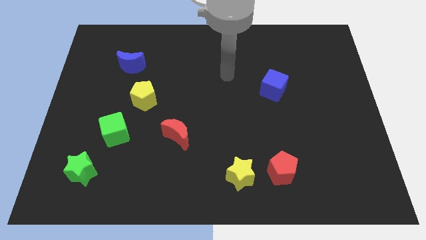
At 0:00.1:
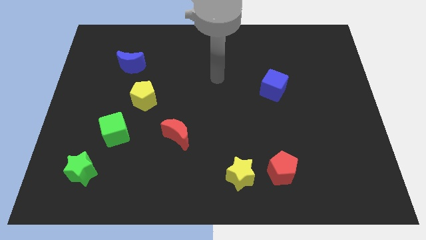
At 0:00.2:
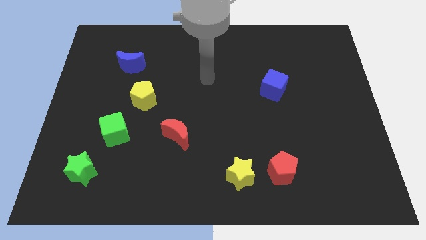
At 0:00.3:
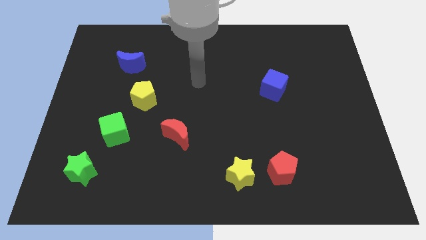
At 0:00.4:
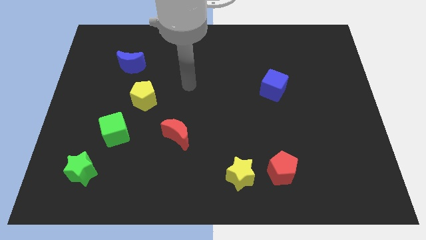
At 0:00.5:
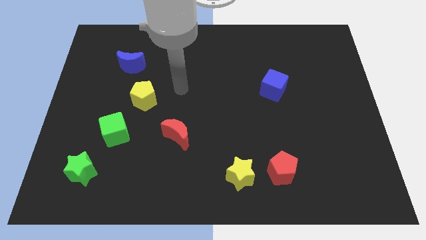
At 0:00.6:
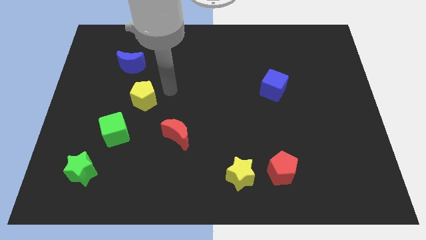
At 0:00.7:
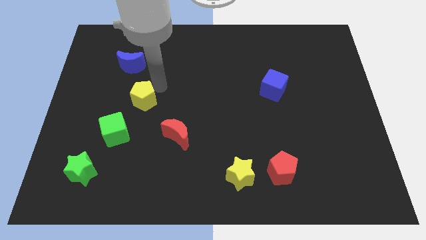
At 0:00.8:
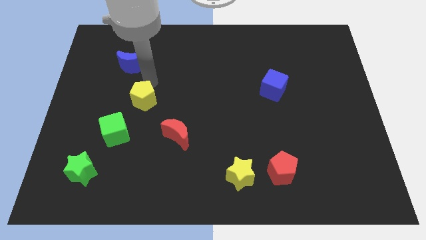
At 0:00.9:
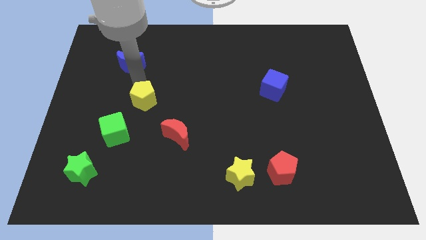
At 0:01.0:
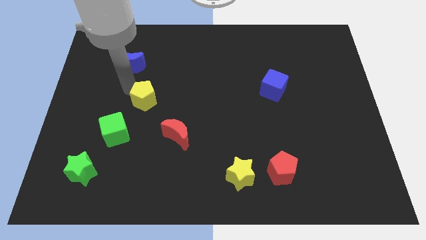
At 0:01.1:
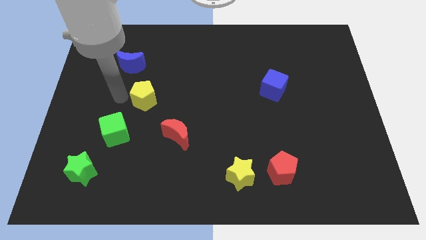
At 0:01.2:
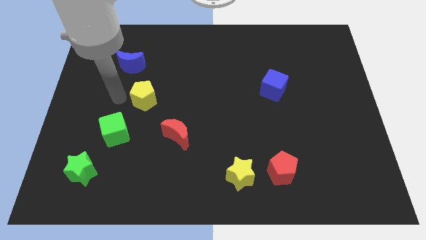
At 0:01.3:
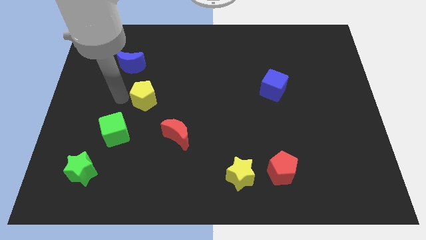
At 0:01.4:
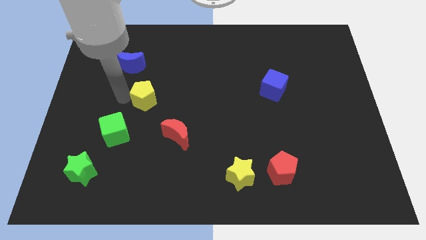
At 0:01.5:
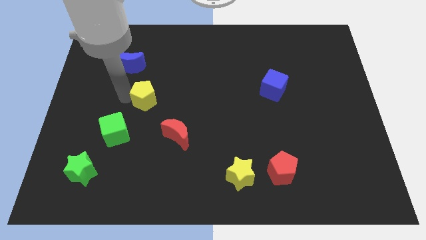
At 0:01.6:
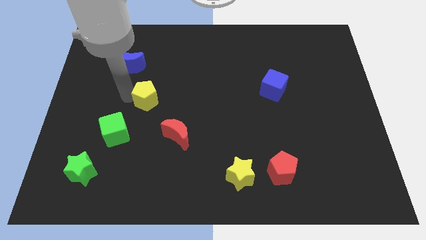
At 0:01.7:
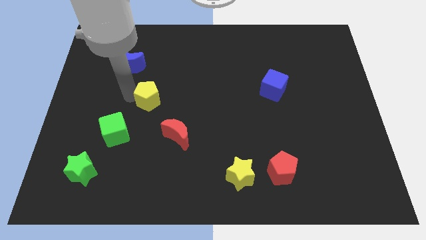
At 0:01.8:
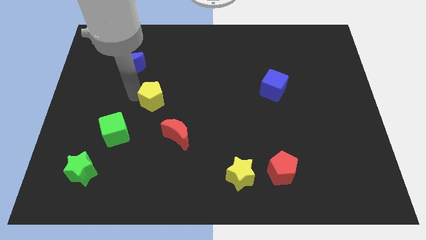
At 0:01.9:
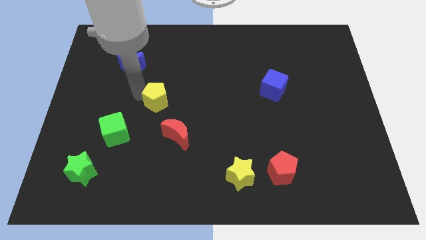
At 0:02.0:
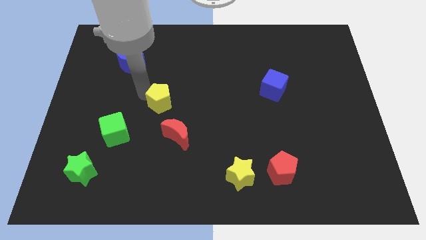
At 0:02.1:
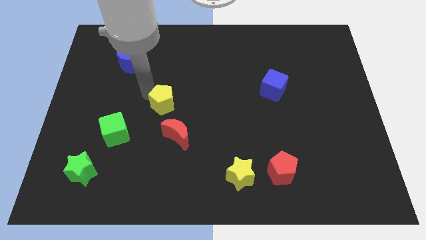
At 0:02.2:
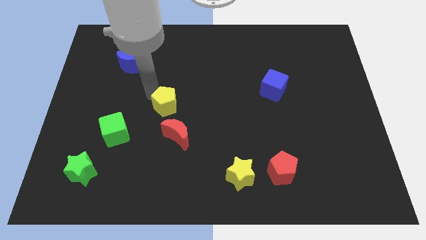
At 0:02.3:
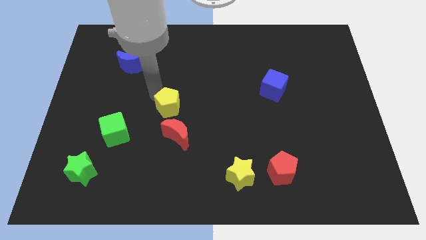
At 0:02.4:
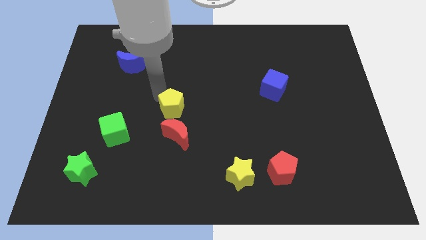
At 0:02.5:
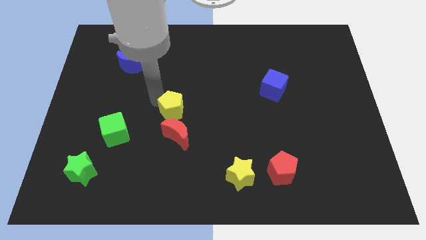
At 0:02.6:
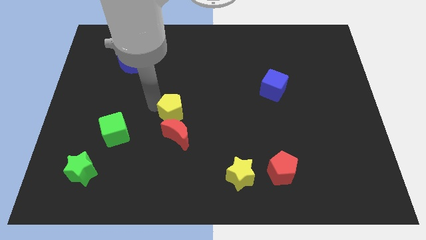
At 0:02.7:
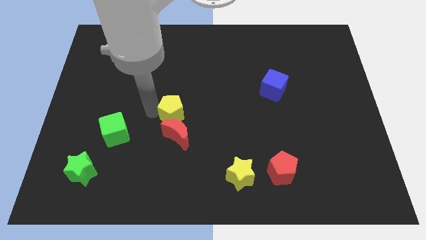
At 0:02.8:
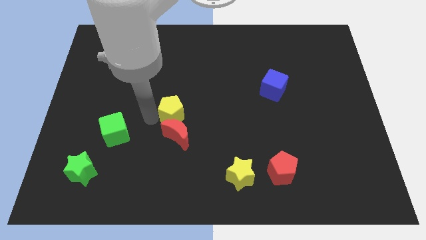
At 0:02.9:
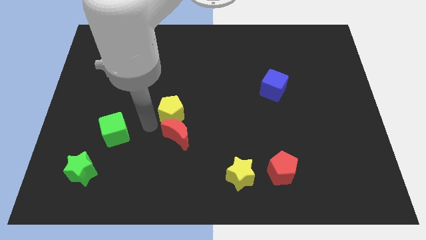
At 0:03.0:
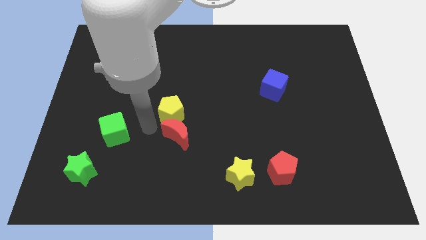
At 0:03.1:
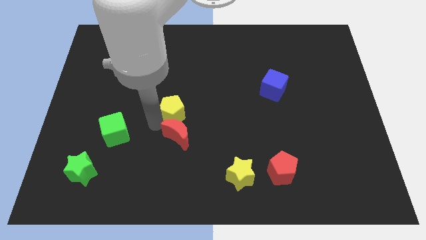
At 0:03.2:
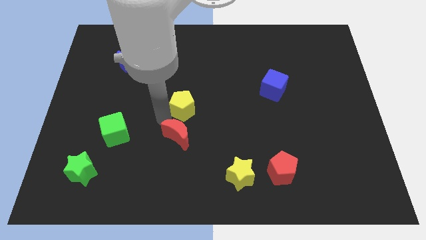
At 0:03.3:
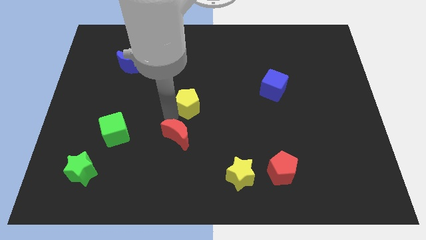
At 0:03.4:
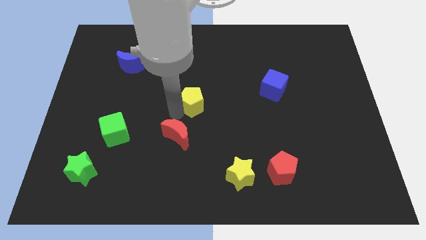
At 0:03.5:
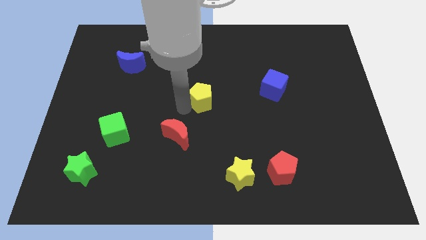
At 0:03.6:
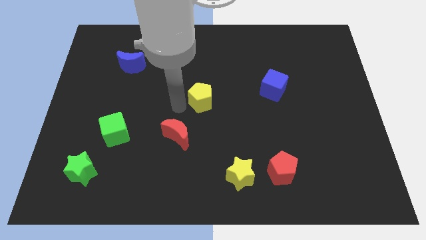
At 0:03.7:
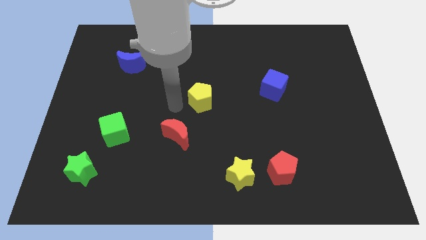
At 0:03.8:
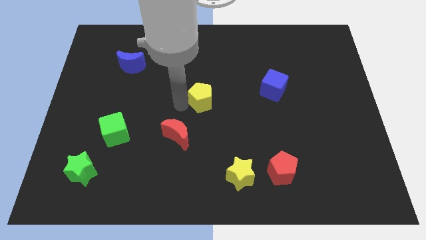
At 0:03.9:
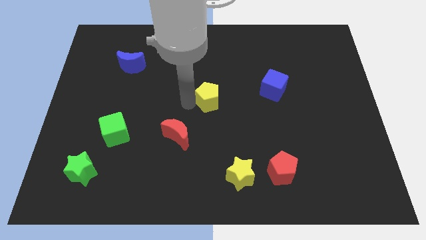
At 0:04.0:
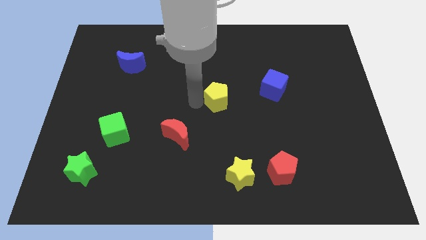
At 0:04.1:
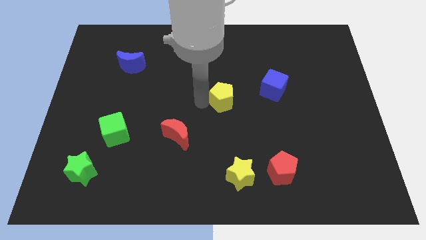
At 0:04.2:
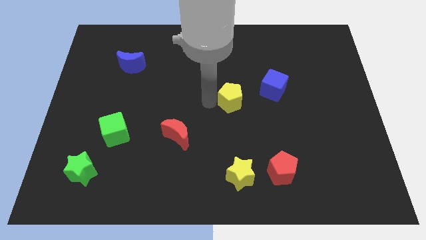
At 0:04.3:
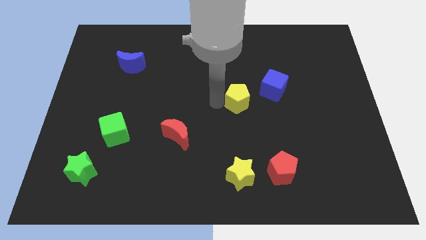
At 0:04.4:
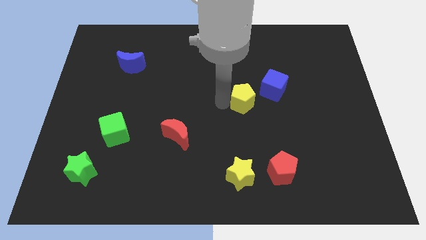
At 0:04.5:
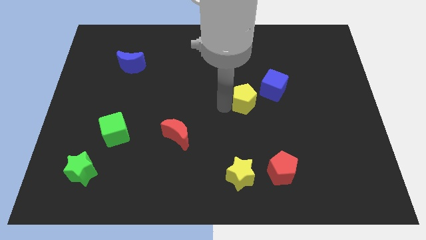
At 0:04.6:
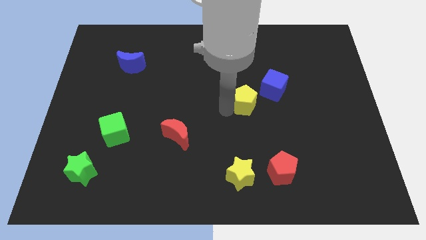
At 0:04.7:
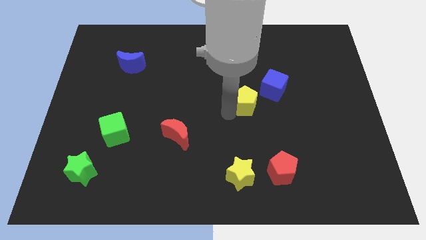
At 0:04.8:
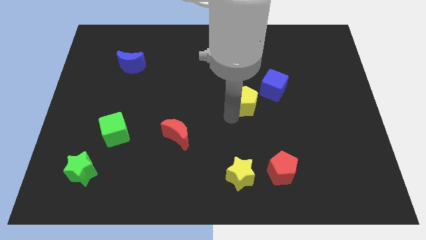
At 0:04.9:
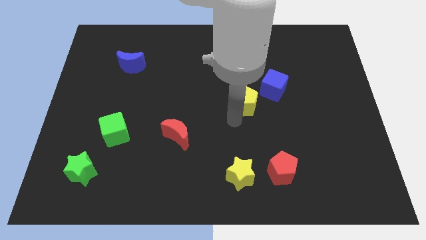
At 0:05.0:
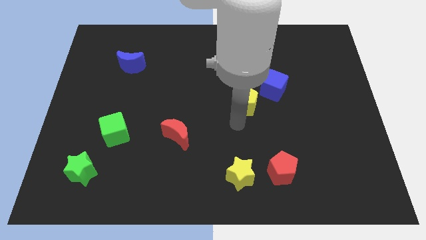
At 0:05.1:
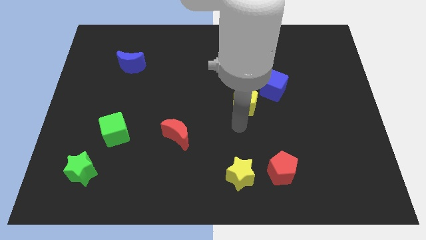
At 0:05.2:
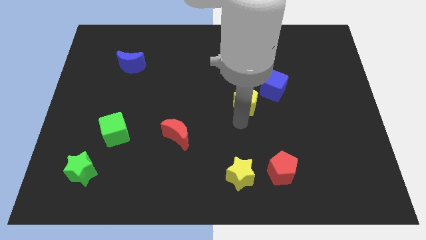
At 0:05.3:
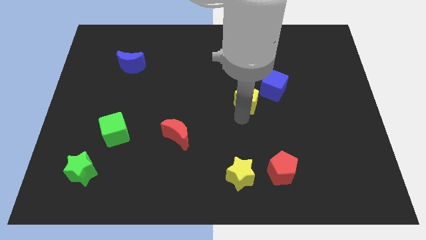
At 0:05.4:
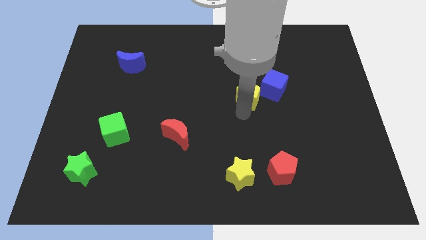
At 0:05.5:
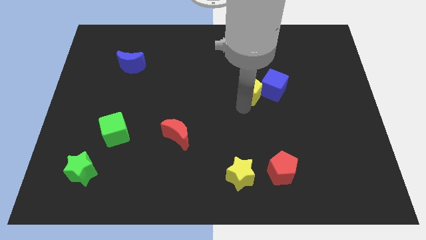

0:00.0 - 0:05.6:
slide the yellow pentagon to the blue cube

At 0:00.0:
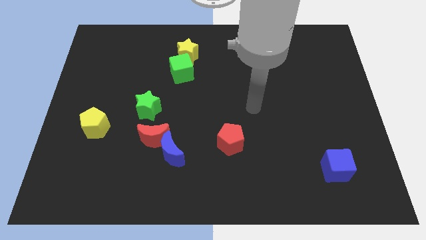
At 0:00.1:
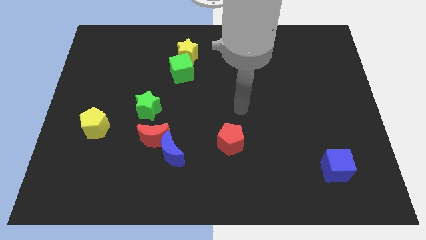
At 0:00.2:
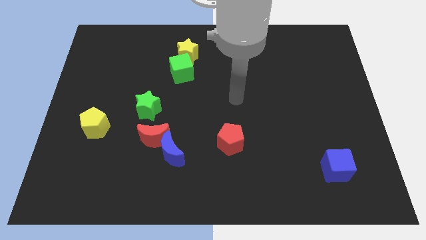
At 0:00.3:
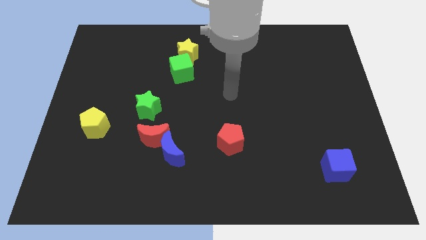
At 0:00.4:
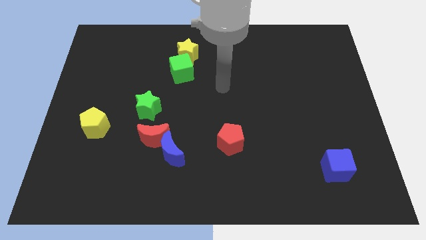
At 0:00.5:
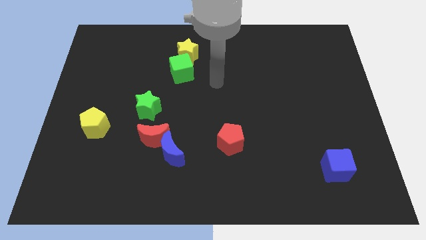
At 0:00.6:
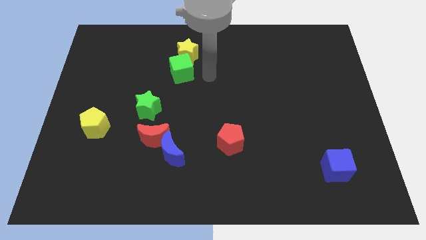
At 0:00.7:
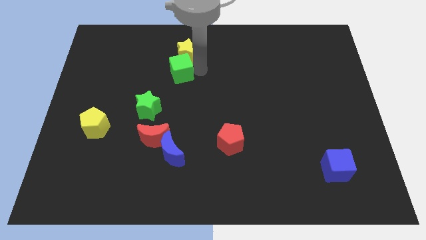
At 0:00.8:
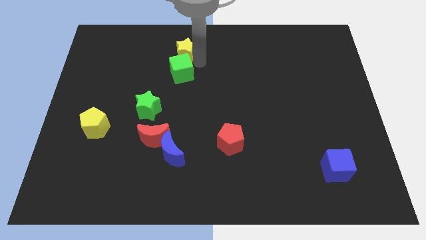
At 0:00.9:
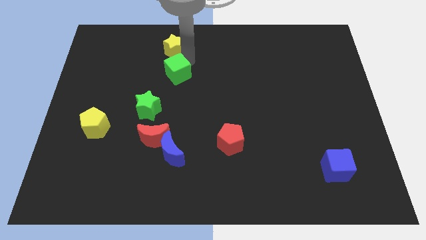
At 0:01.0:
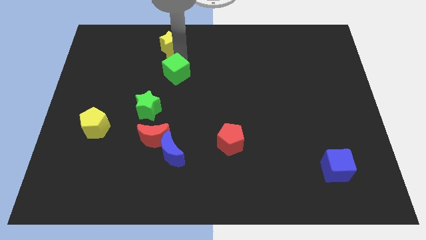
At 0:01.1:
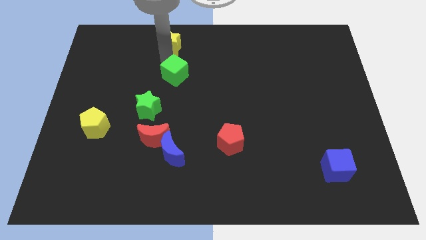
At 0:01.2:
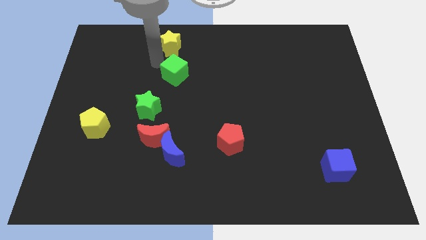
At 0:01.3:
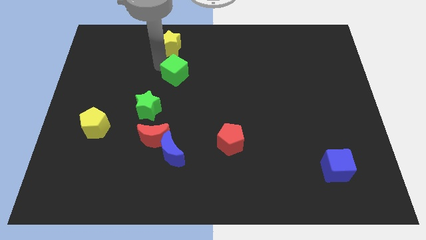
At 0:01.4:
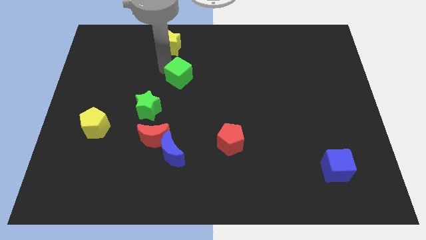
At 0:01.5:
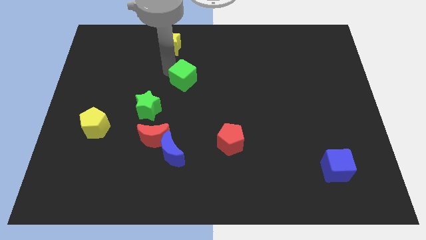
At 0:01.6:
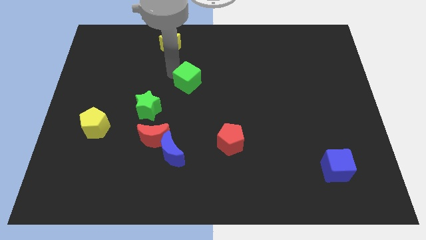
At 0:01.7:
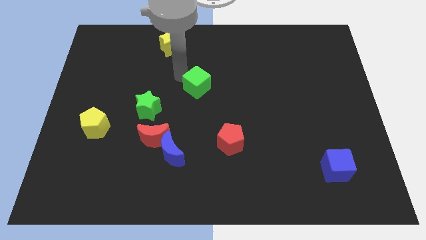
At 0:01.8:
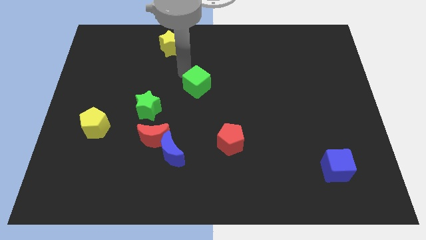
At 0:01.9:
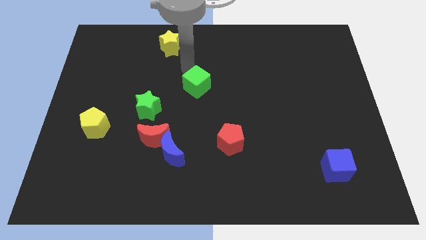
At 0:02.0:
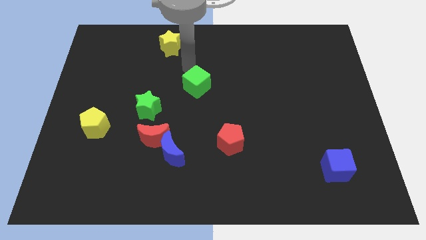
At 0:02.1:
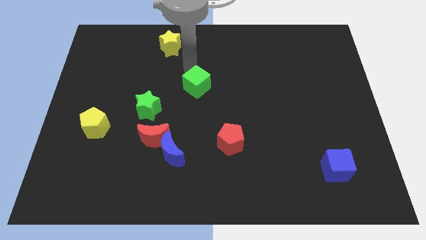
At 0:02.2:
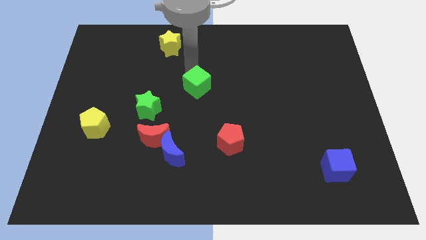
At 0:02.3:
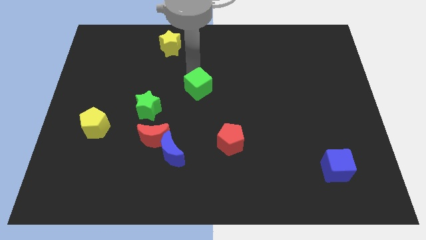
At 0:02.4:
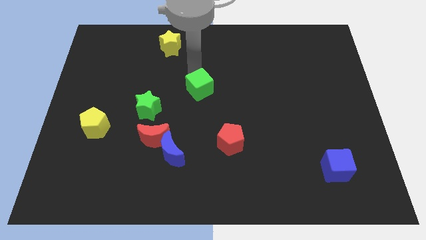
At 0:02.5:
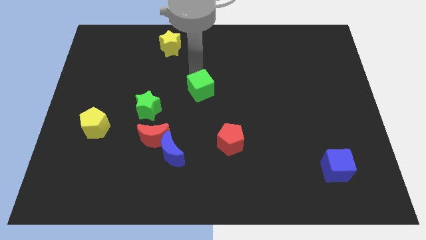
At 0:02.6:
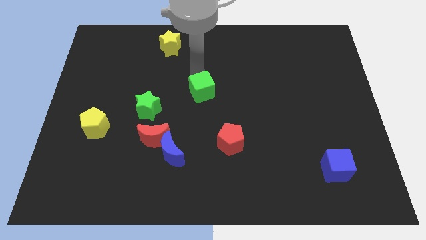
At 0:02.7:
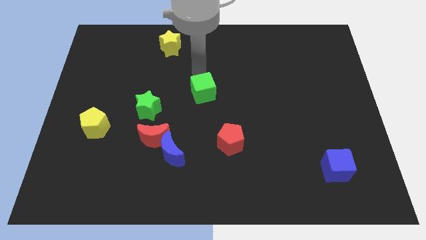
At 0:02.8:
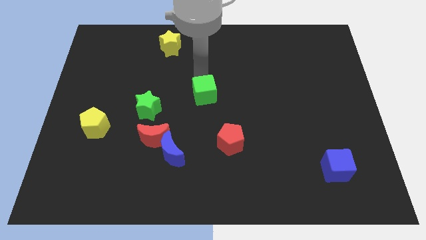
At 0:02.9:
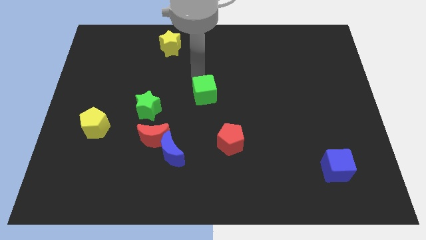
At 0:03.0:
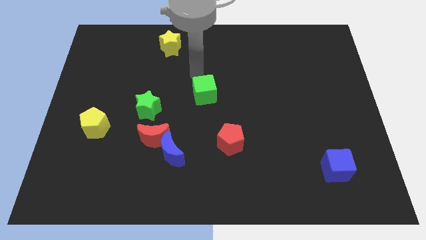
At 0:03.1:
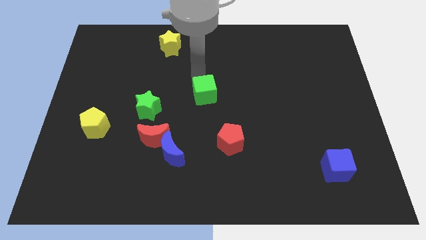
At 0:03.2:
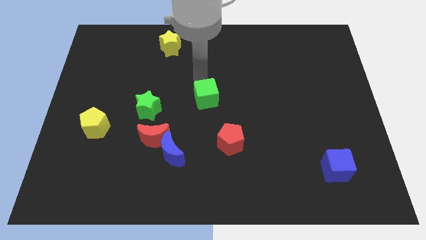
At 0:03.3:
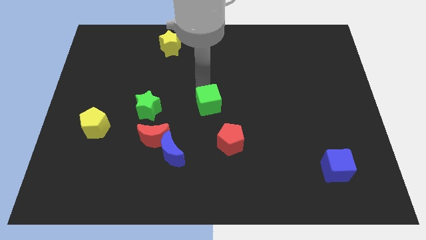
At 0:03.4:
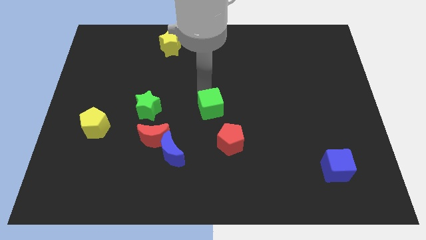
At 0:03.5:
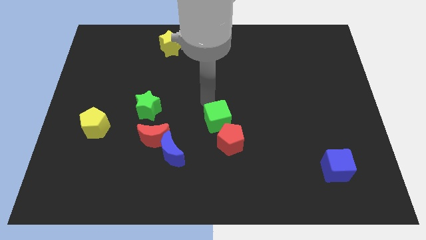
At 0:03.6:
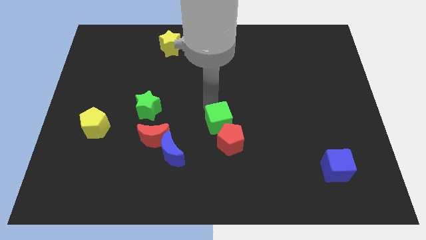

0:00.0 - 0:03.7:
slide the green cube close to the red pentagon
